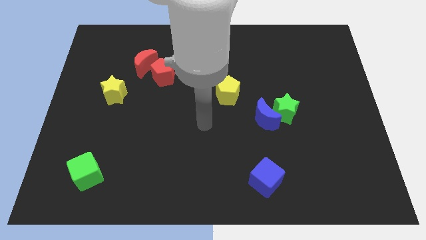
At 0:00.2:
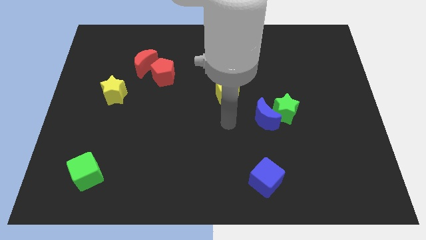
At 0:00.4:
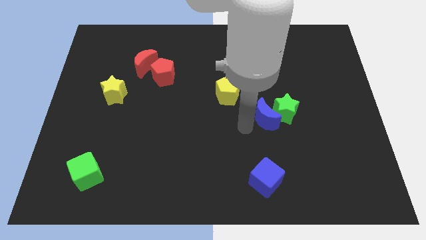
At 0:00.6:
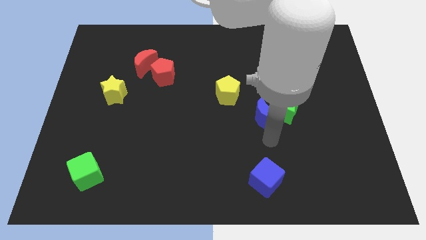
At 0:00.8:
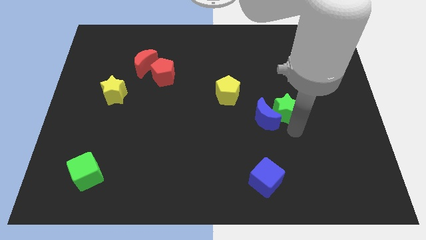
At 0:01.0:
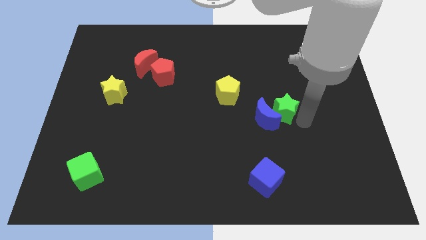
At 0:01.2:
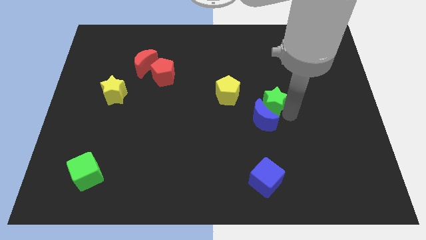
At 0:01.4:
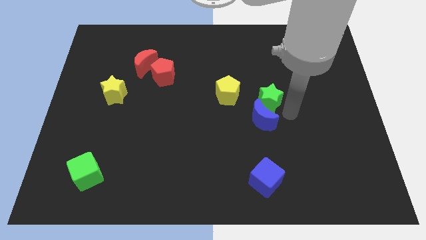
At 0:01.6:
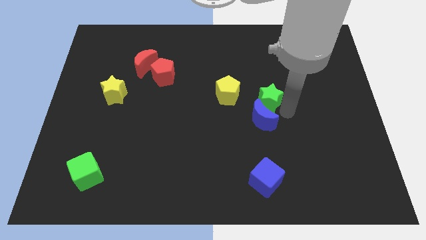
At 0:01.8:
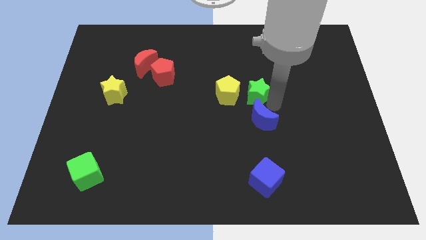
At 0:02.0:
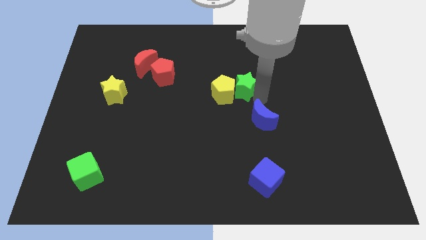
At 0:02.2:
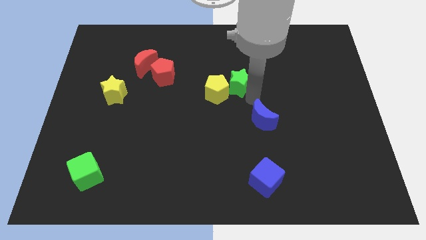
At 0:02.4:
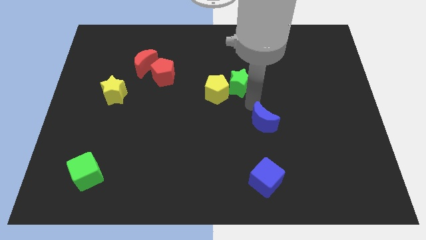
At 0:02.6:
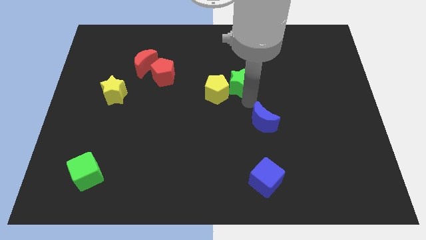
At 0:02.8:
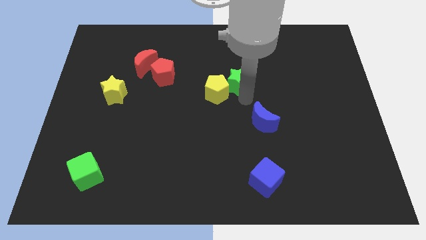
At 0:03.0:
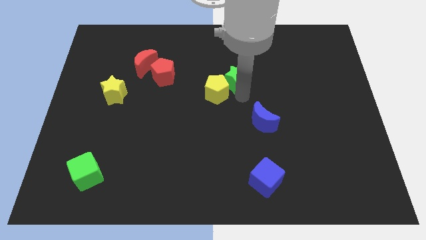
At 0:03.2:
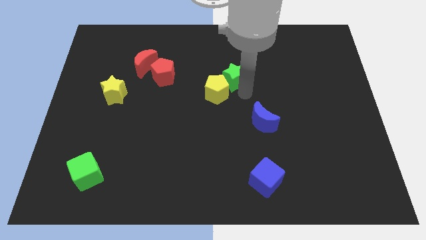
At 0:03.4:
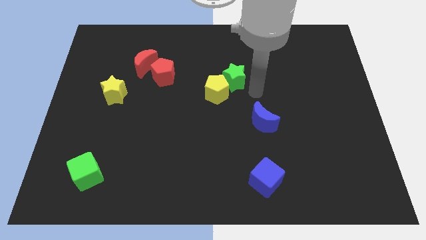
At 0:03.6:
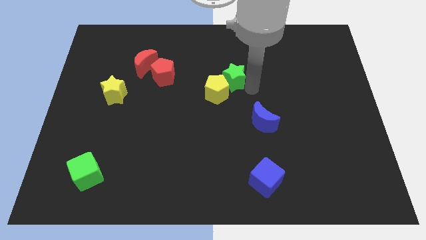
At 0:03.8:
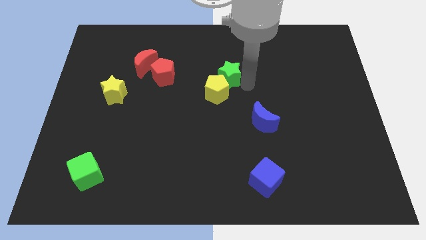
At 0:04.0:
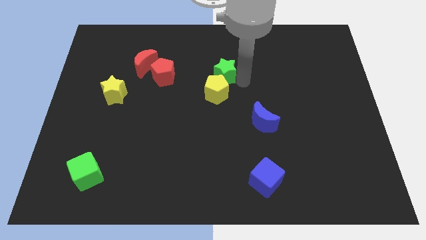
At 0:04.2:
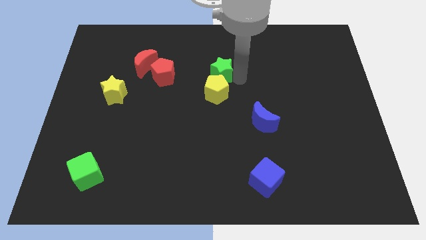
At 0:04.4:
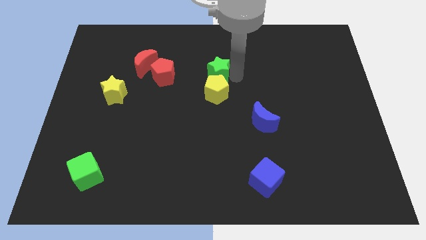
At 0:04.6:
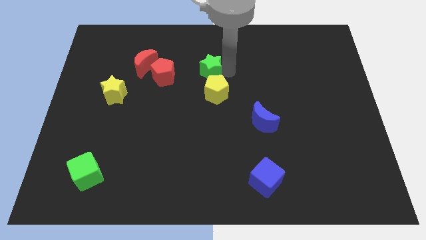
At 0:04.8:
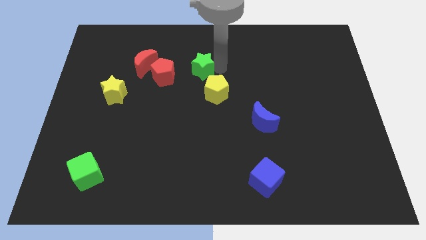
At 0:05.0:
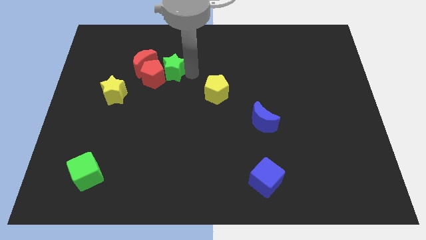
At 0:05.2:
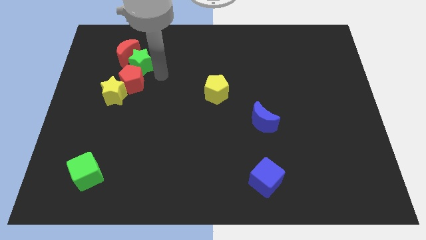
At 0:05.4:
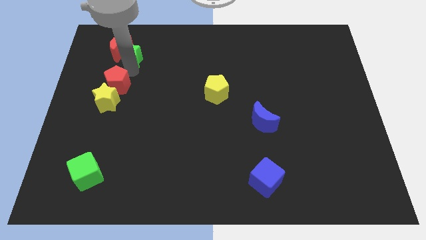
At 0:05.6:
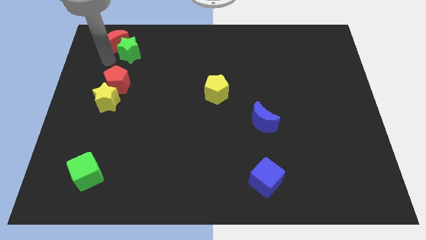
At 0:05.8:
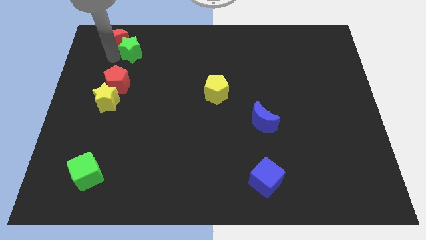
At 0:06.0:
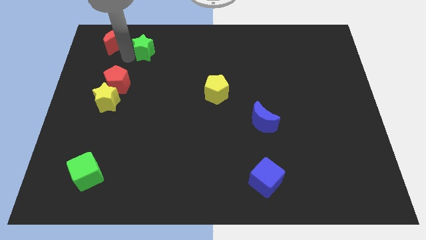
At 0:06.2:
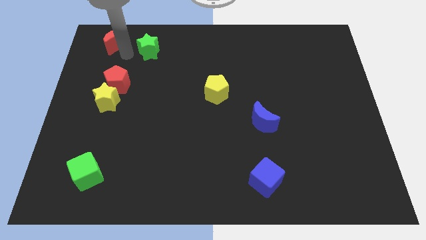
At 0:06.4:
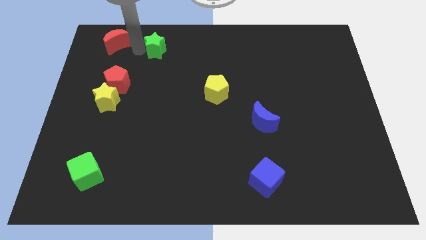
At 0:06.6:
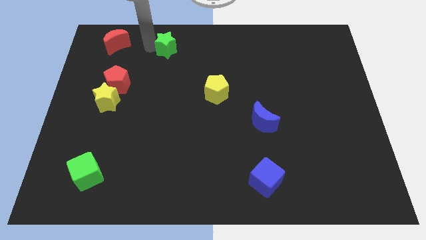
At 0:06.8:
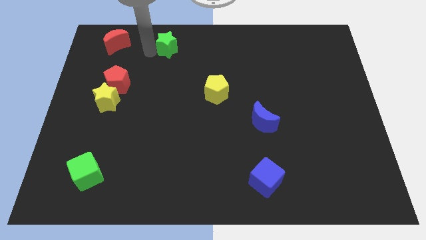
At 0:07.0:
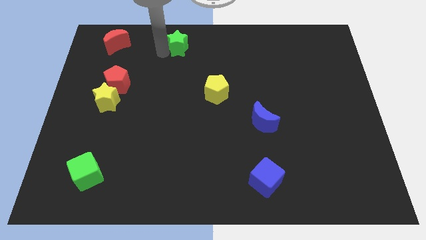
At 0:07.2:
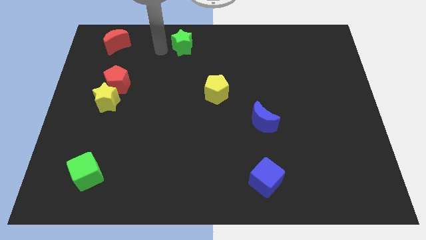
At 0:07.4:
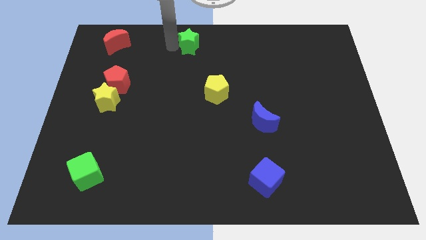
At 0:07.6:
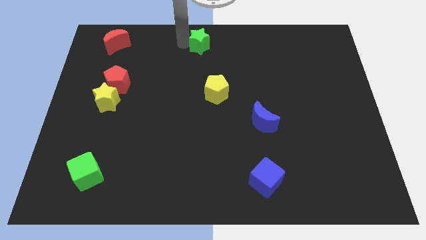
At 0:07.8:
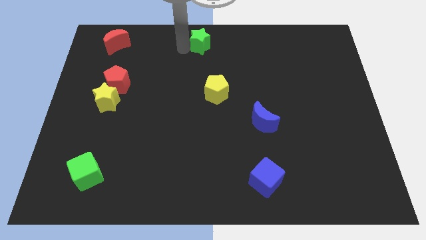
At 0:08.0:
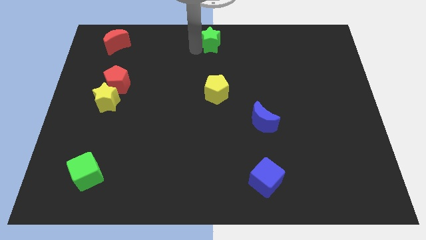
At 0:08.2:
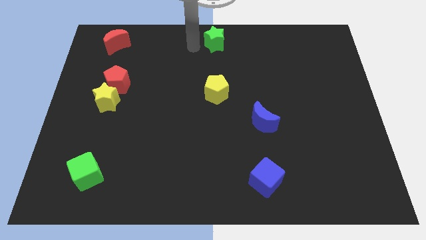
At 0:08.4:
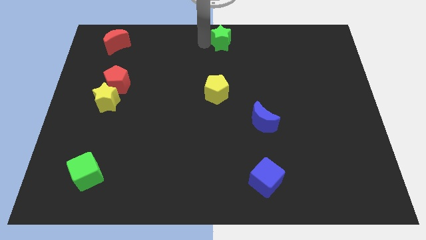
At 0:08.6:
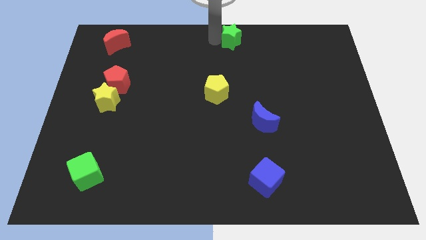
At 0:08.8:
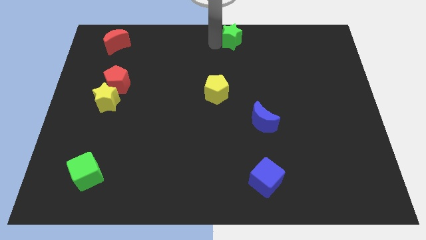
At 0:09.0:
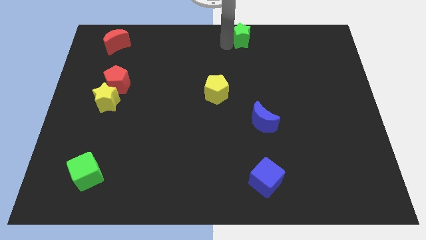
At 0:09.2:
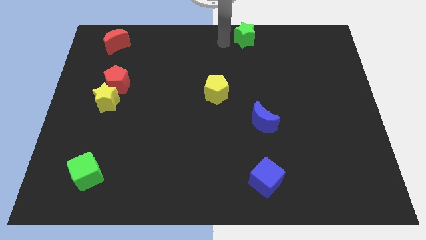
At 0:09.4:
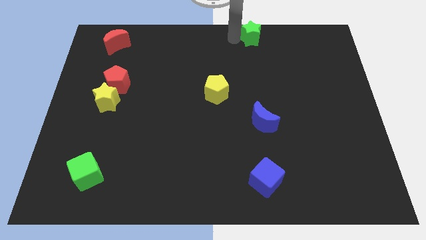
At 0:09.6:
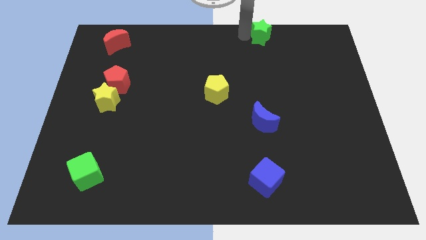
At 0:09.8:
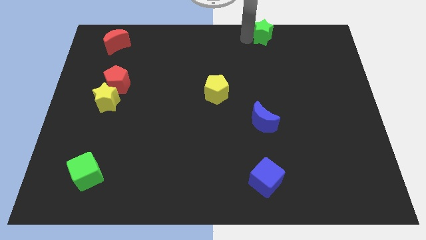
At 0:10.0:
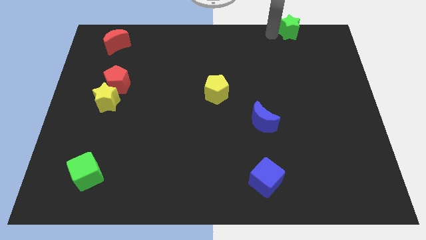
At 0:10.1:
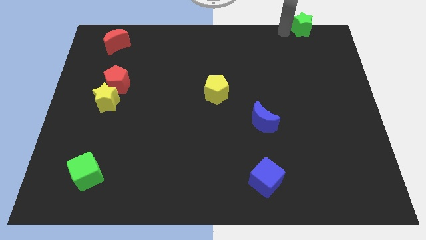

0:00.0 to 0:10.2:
put the green star to the top right corner
